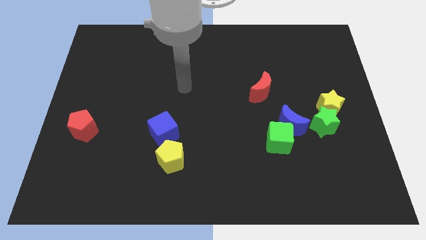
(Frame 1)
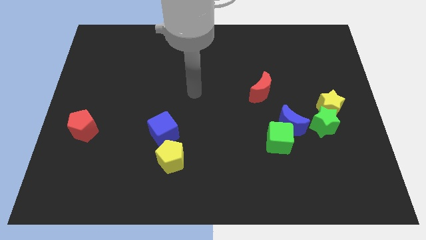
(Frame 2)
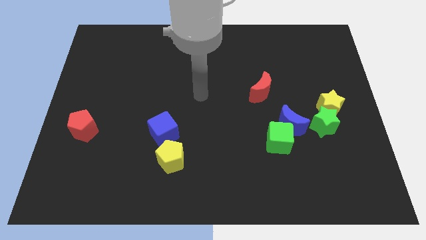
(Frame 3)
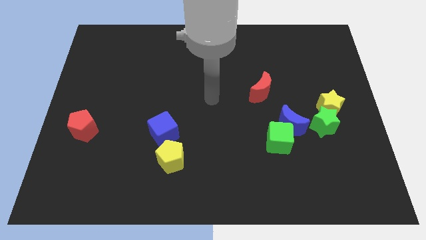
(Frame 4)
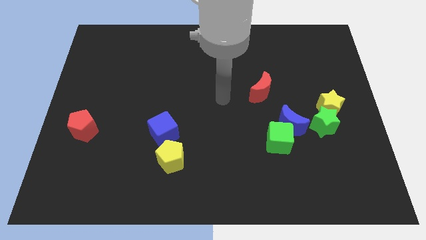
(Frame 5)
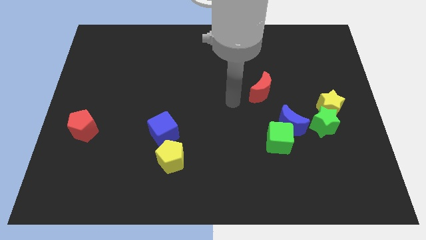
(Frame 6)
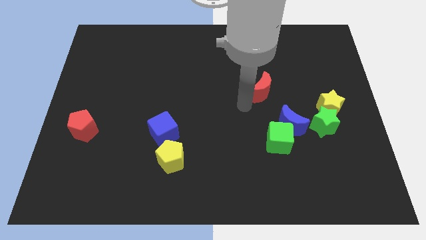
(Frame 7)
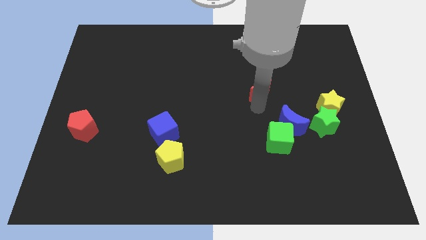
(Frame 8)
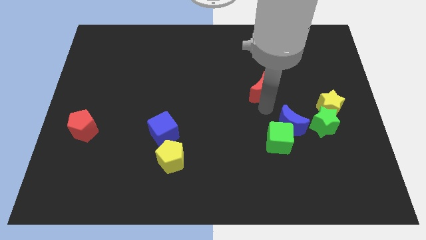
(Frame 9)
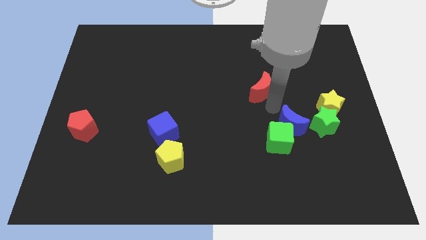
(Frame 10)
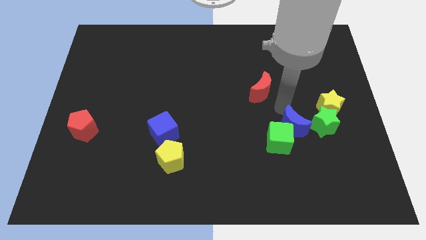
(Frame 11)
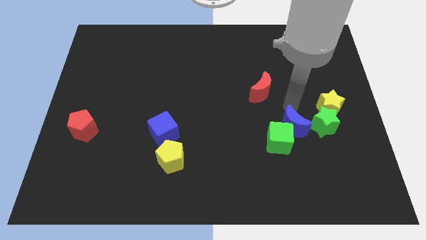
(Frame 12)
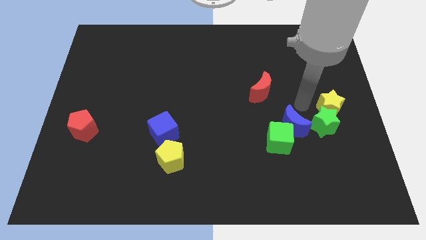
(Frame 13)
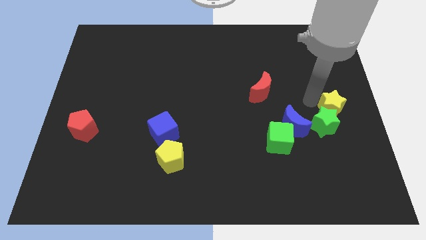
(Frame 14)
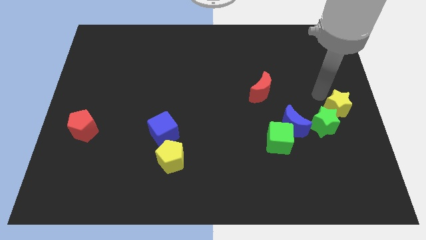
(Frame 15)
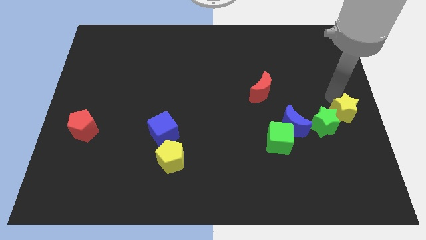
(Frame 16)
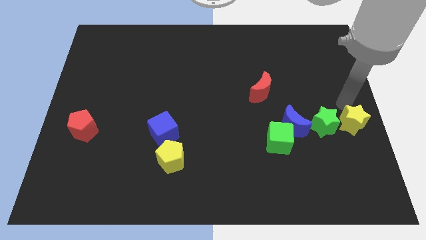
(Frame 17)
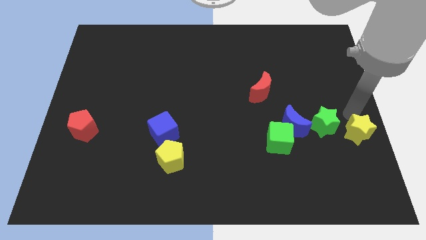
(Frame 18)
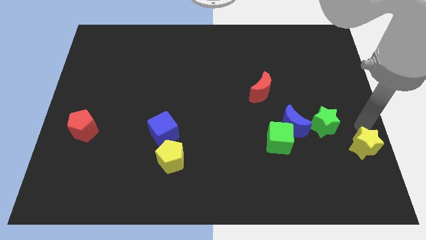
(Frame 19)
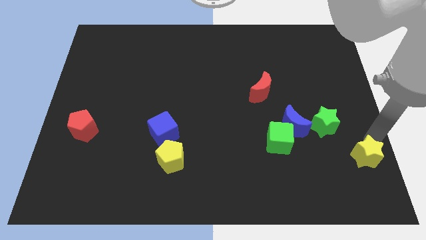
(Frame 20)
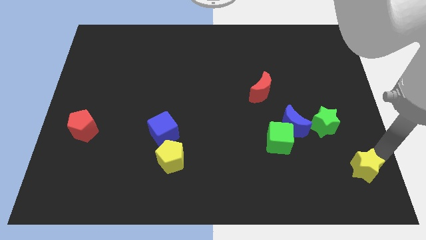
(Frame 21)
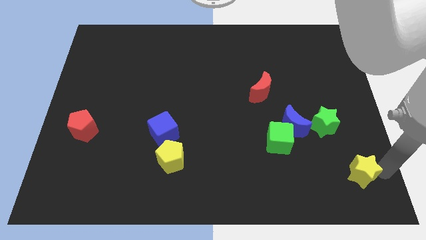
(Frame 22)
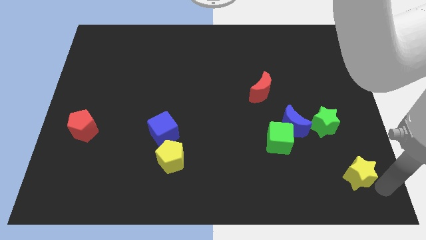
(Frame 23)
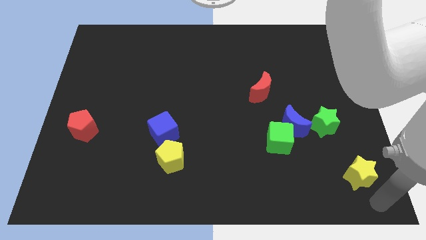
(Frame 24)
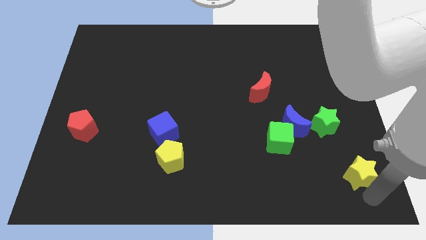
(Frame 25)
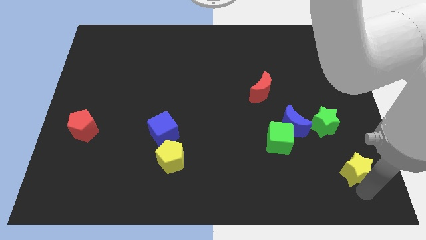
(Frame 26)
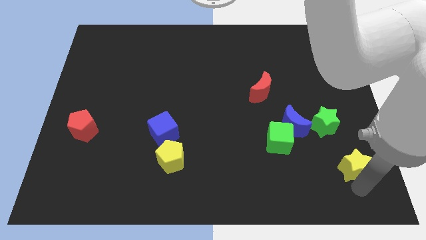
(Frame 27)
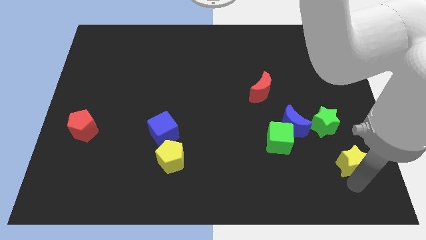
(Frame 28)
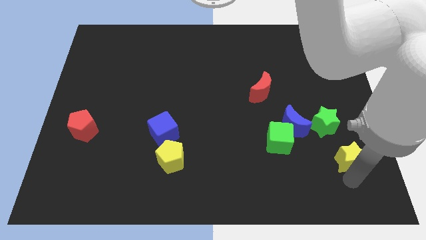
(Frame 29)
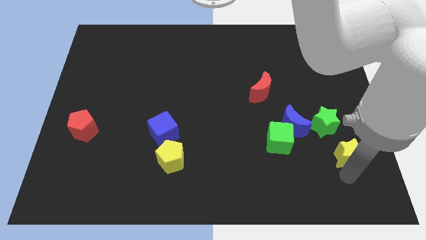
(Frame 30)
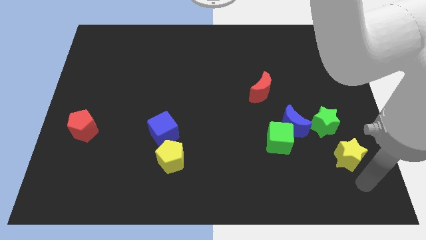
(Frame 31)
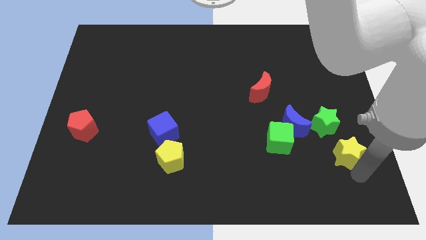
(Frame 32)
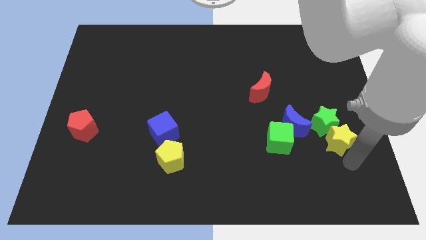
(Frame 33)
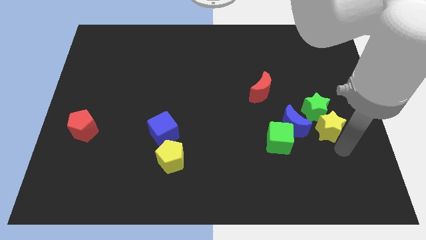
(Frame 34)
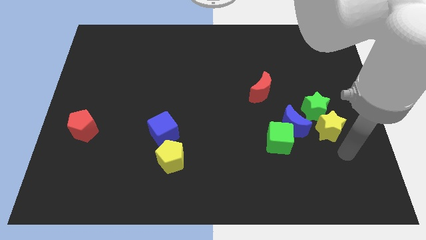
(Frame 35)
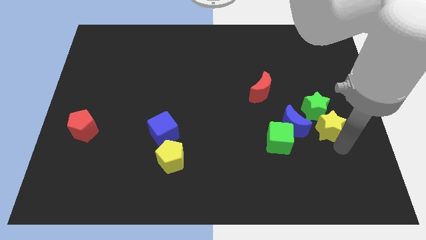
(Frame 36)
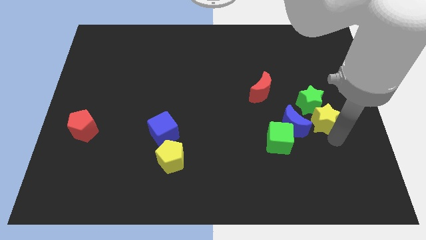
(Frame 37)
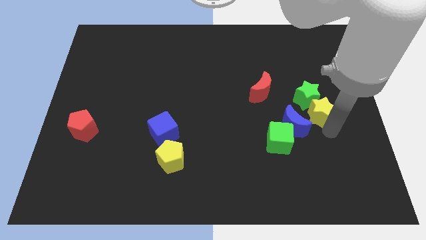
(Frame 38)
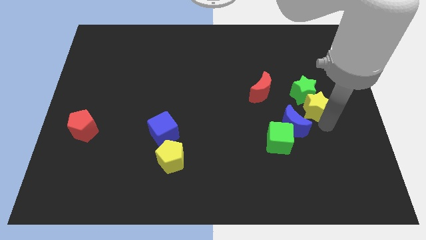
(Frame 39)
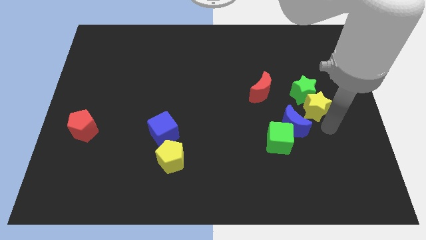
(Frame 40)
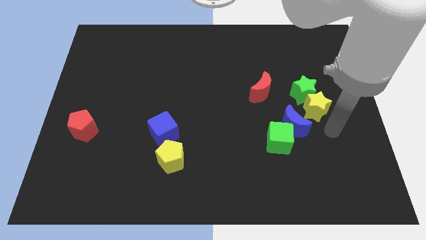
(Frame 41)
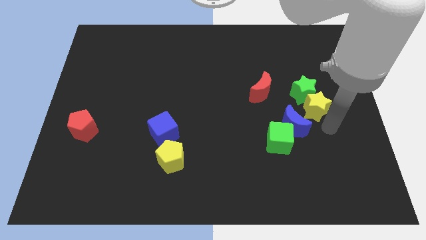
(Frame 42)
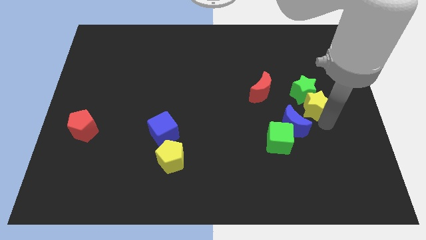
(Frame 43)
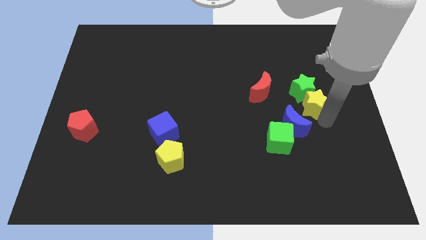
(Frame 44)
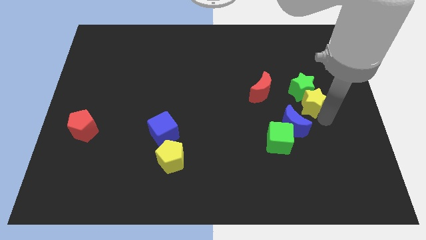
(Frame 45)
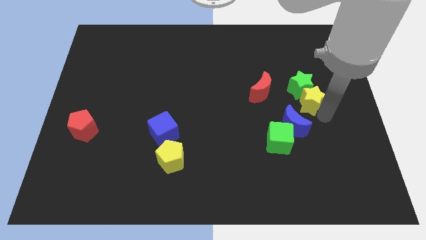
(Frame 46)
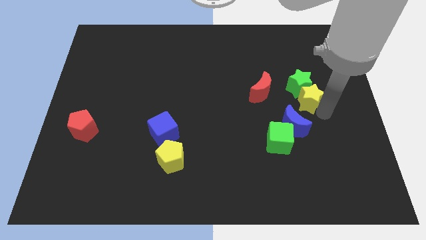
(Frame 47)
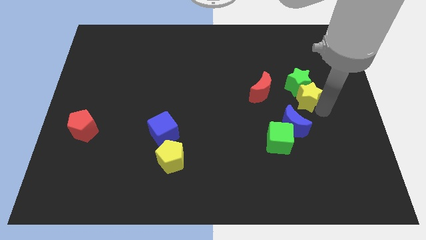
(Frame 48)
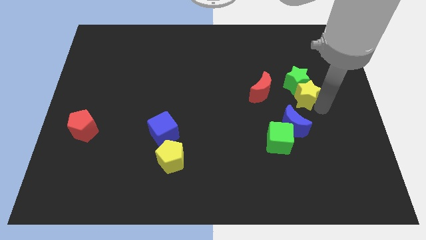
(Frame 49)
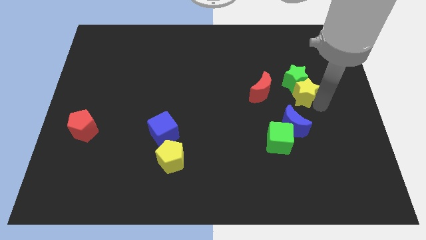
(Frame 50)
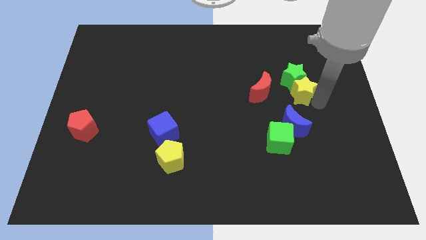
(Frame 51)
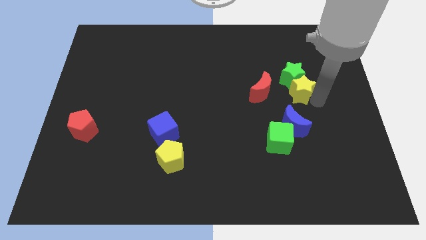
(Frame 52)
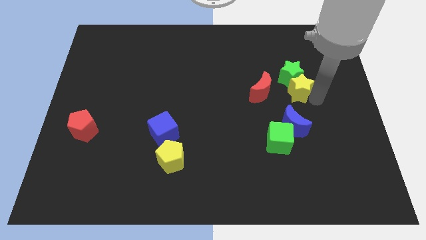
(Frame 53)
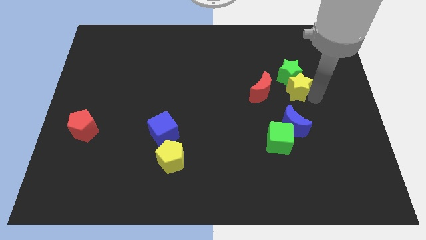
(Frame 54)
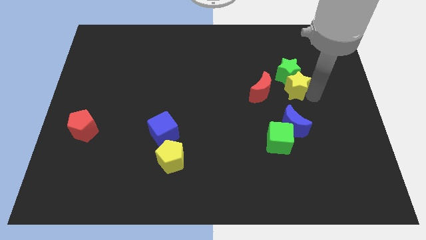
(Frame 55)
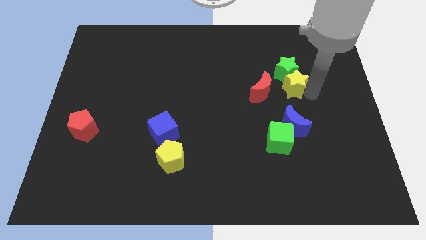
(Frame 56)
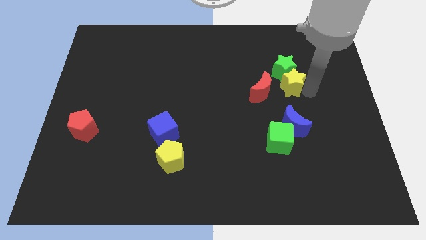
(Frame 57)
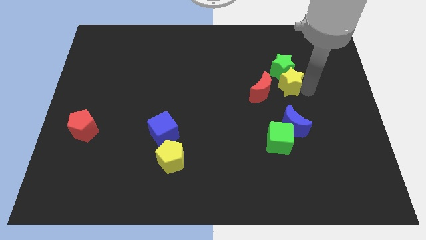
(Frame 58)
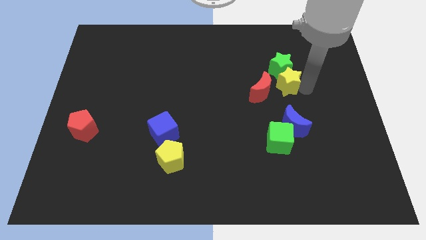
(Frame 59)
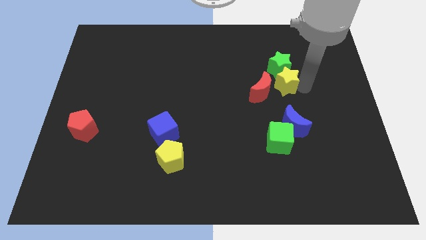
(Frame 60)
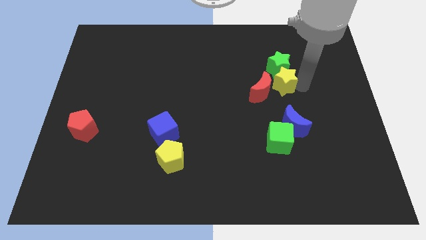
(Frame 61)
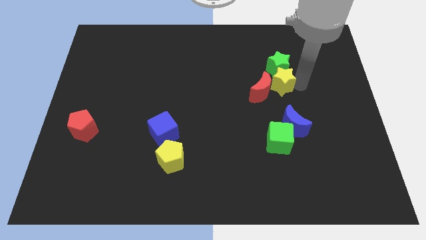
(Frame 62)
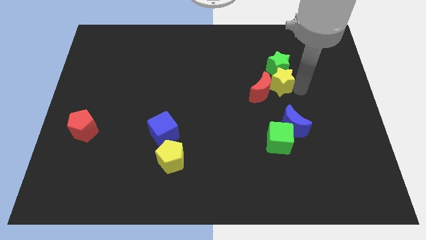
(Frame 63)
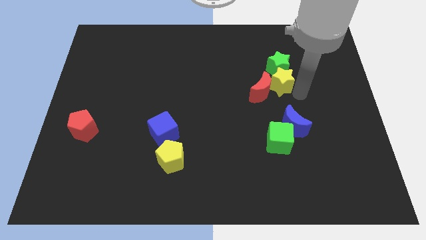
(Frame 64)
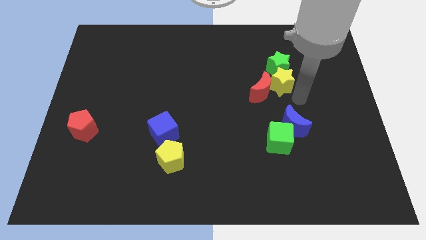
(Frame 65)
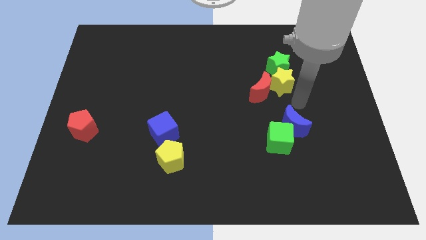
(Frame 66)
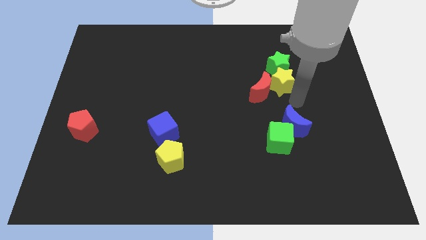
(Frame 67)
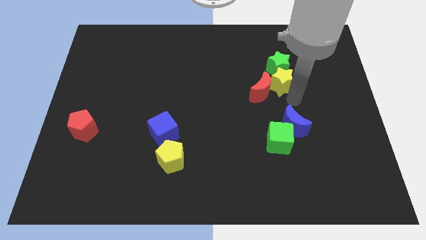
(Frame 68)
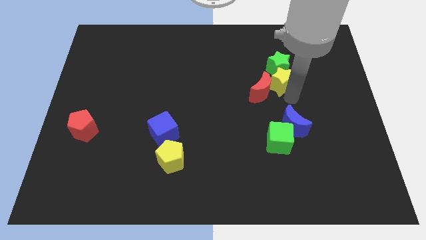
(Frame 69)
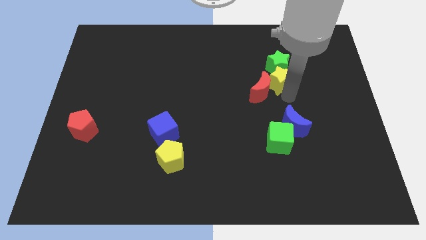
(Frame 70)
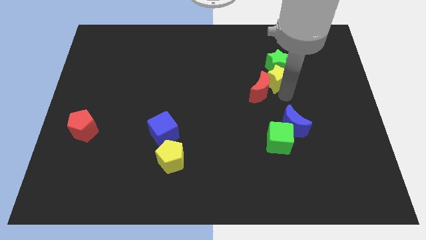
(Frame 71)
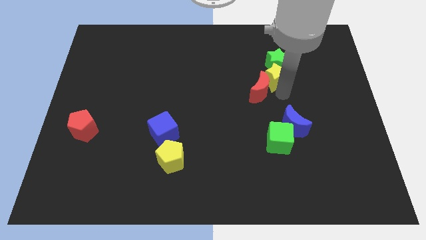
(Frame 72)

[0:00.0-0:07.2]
move the yellow star to the top of the red moon
